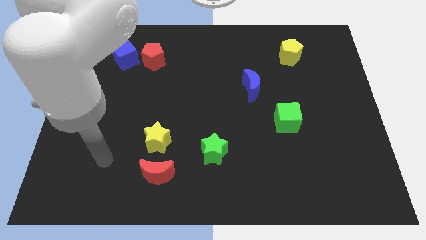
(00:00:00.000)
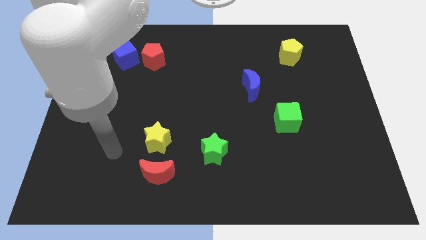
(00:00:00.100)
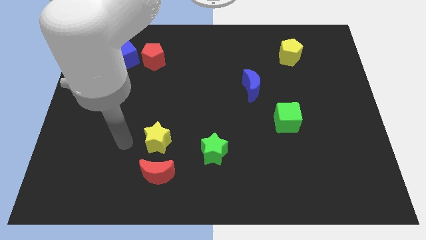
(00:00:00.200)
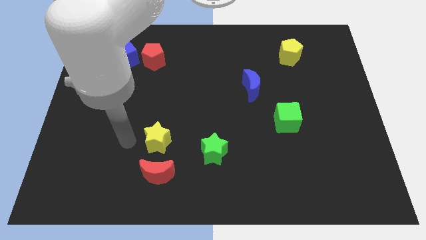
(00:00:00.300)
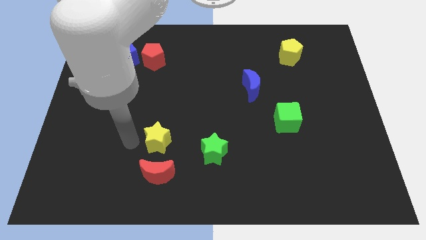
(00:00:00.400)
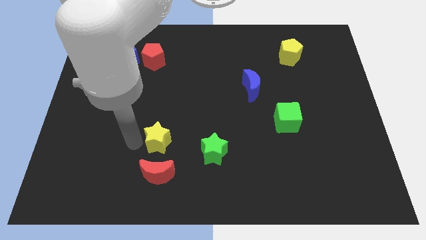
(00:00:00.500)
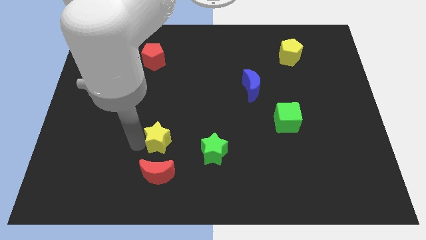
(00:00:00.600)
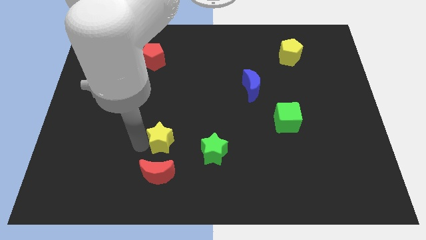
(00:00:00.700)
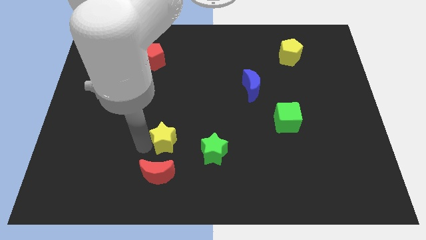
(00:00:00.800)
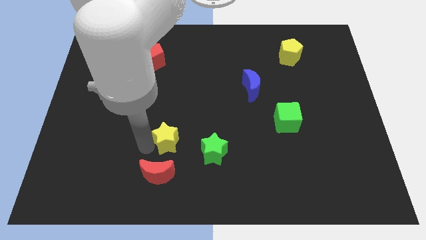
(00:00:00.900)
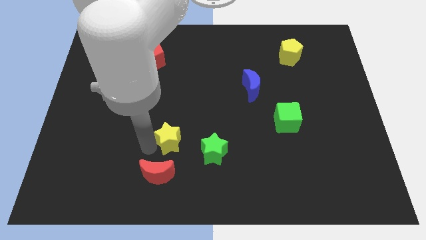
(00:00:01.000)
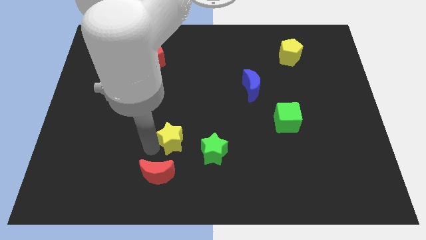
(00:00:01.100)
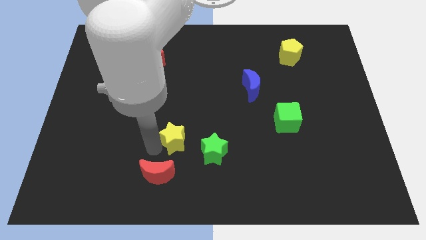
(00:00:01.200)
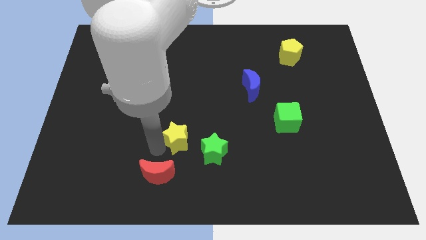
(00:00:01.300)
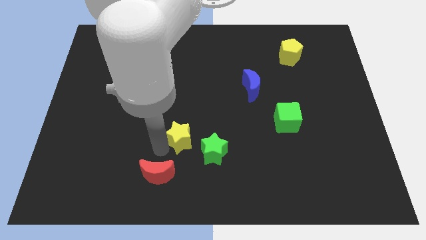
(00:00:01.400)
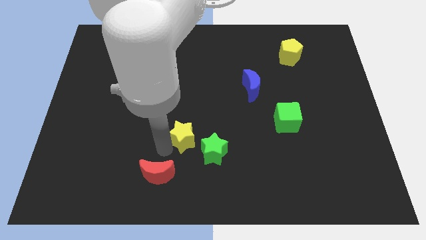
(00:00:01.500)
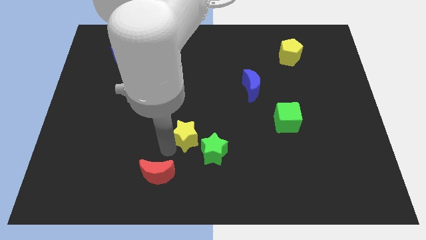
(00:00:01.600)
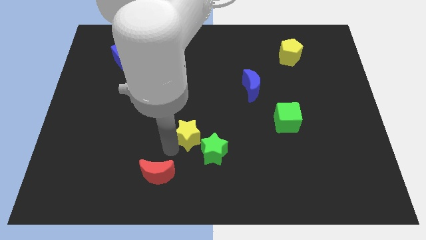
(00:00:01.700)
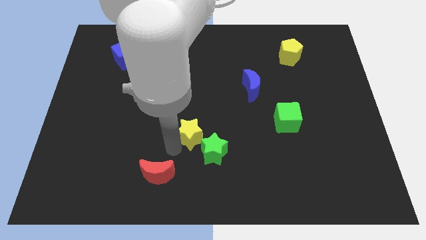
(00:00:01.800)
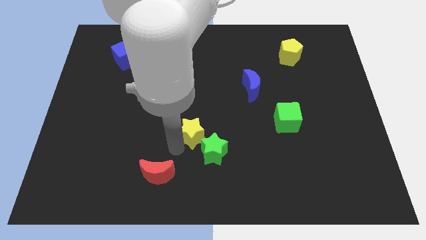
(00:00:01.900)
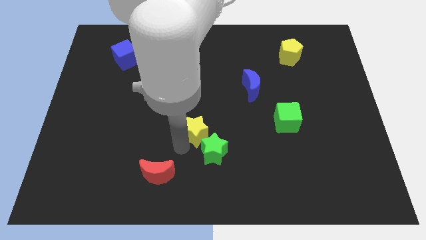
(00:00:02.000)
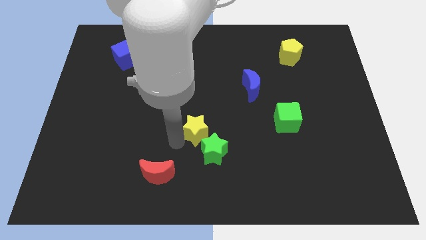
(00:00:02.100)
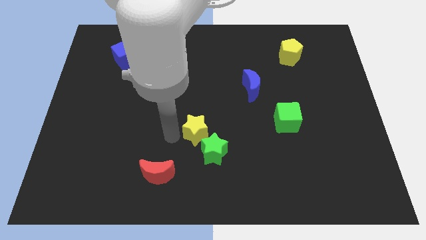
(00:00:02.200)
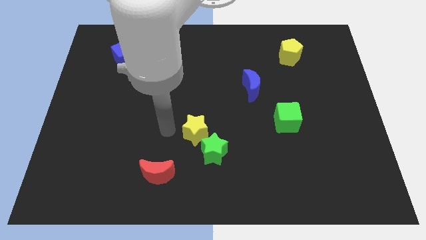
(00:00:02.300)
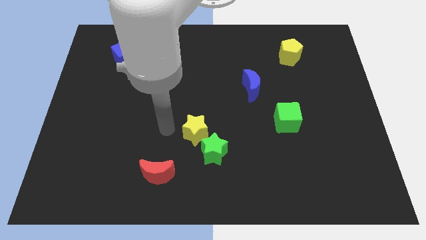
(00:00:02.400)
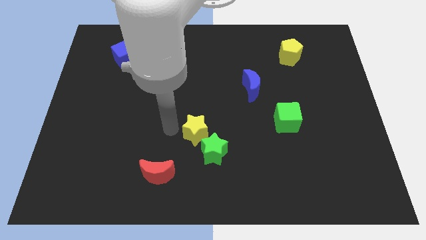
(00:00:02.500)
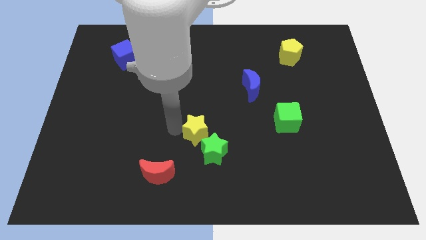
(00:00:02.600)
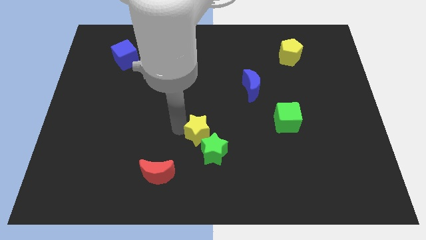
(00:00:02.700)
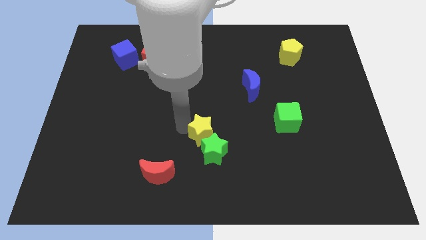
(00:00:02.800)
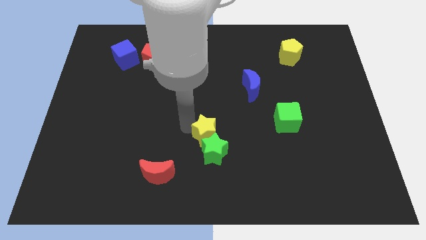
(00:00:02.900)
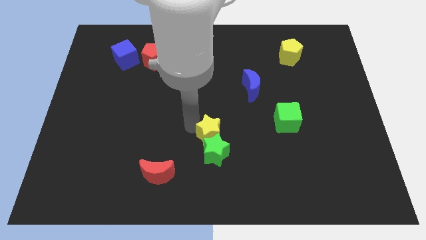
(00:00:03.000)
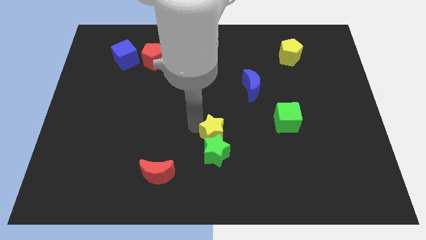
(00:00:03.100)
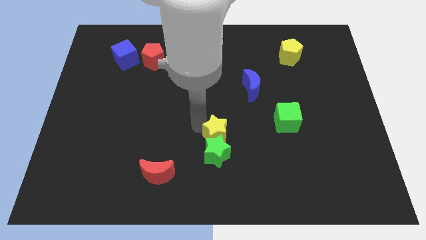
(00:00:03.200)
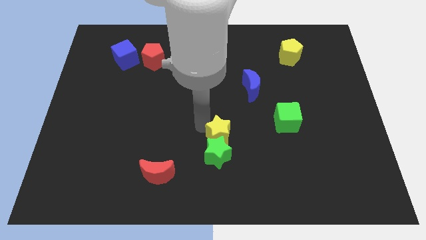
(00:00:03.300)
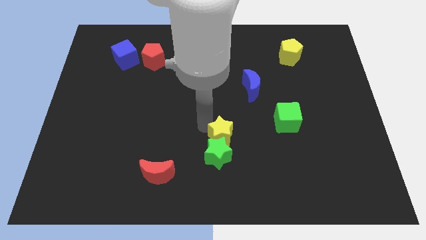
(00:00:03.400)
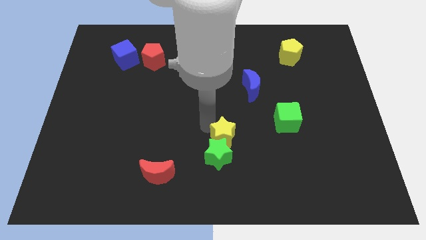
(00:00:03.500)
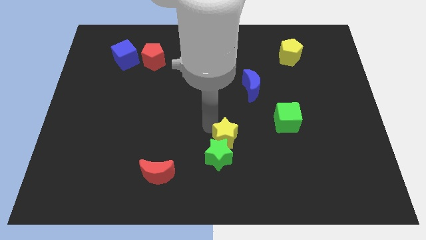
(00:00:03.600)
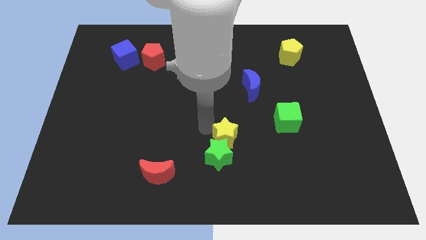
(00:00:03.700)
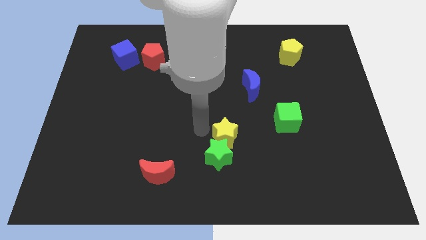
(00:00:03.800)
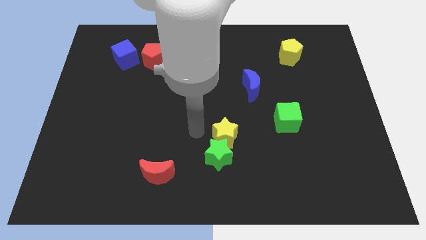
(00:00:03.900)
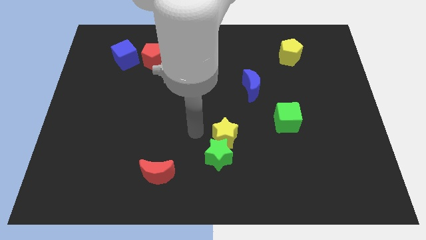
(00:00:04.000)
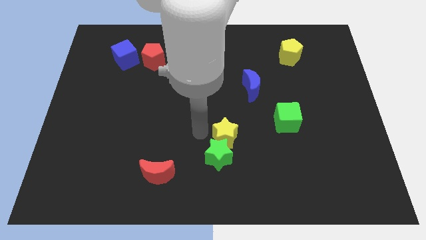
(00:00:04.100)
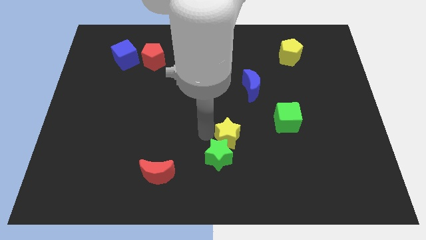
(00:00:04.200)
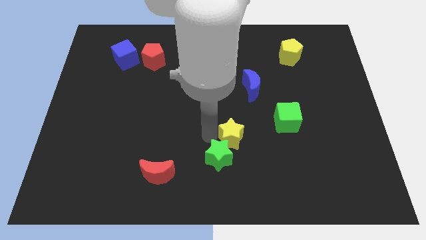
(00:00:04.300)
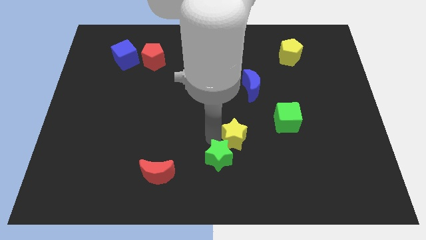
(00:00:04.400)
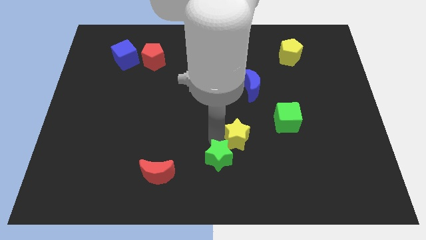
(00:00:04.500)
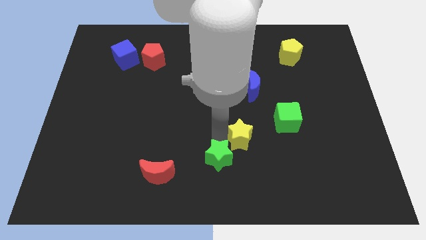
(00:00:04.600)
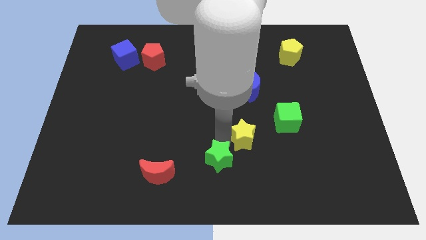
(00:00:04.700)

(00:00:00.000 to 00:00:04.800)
push the yellow star to the bottom left of the green cube

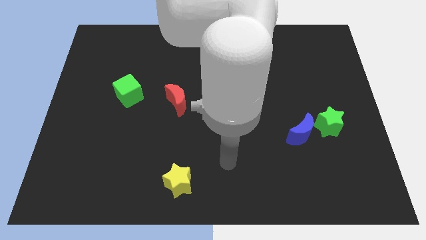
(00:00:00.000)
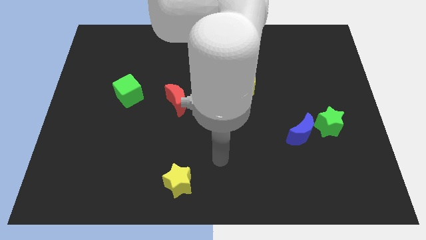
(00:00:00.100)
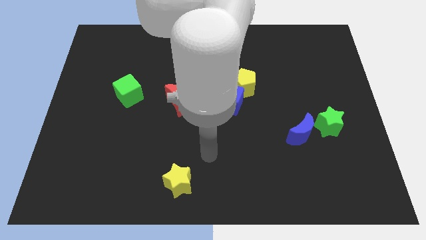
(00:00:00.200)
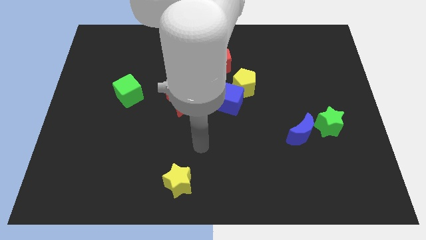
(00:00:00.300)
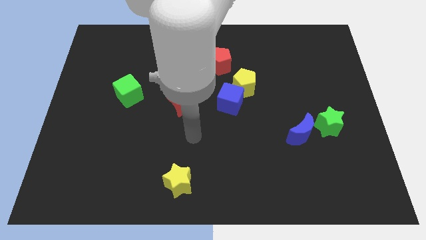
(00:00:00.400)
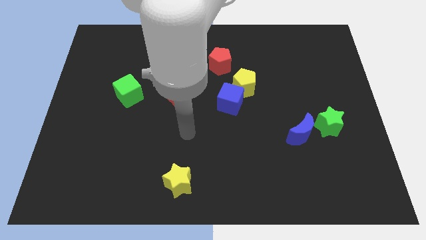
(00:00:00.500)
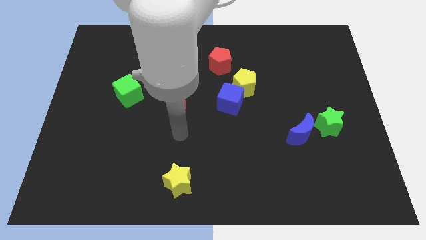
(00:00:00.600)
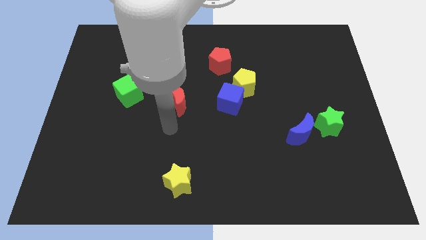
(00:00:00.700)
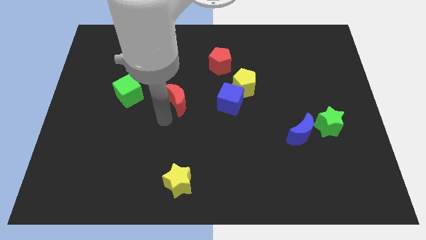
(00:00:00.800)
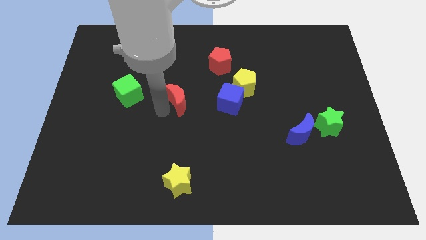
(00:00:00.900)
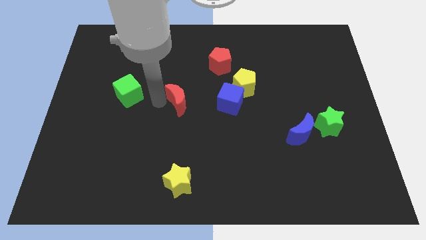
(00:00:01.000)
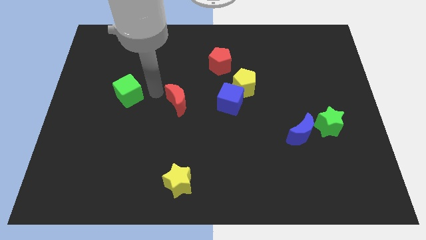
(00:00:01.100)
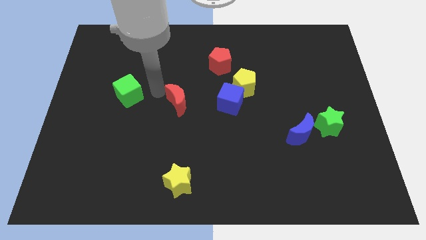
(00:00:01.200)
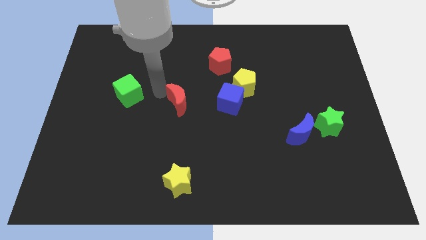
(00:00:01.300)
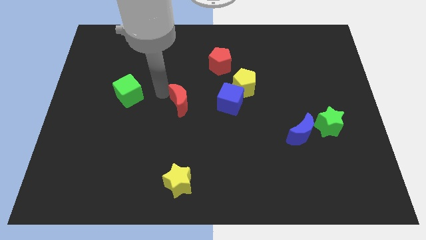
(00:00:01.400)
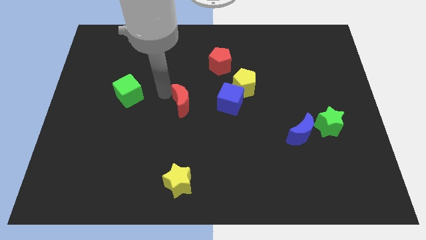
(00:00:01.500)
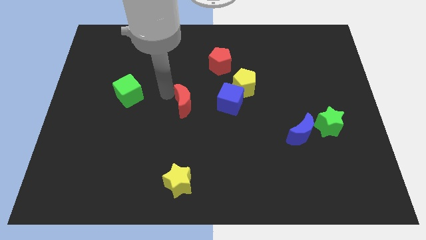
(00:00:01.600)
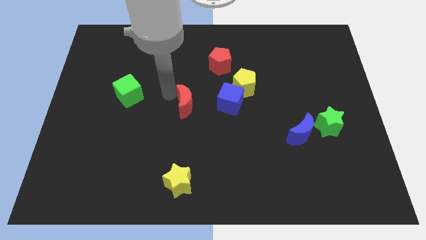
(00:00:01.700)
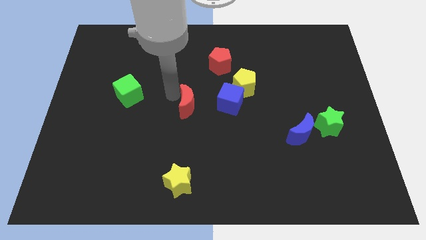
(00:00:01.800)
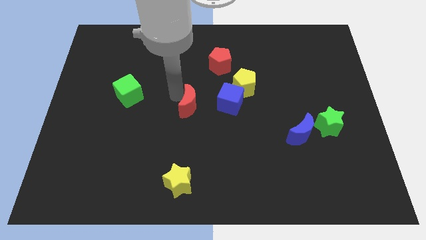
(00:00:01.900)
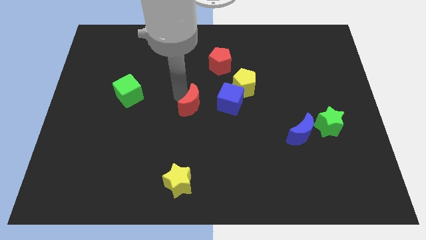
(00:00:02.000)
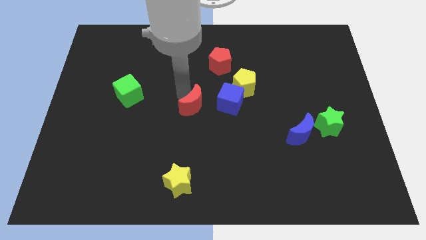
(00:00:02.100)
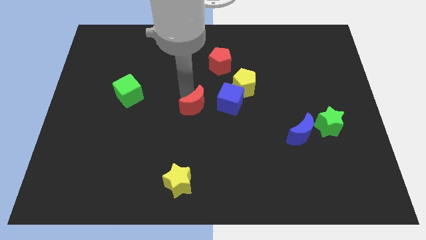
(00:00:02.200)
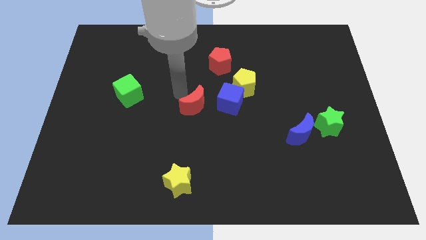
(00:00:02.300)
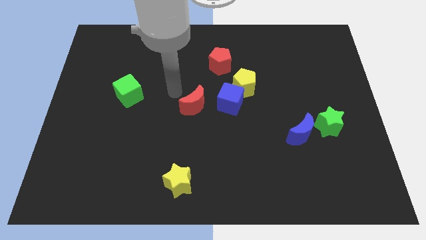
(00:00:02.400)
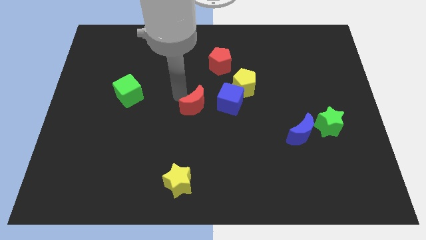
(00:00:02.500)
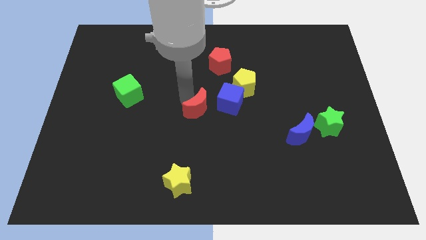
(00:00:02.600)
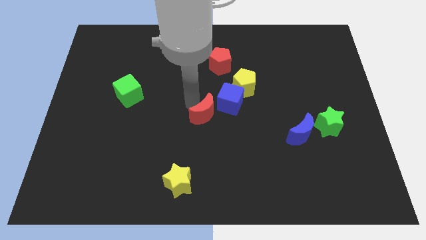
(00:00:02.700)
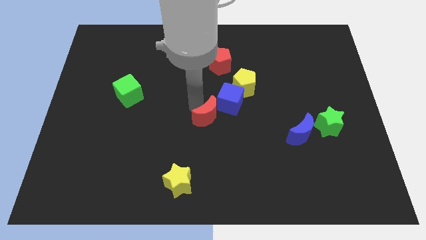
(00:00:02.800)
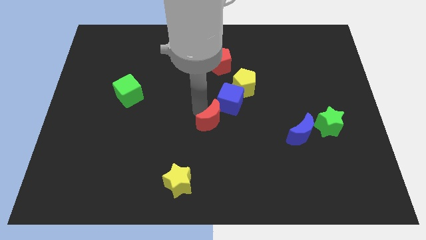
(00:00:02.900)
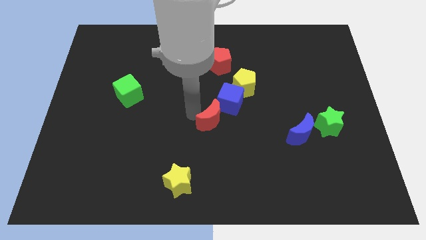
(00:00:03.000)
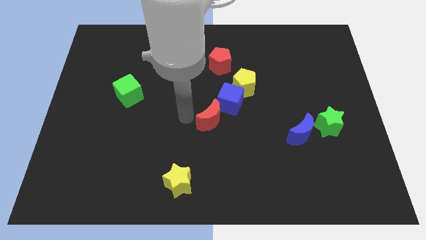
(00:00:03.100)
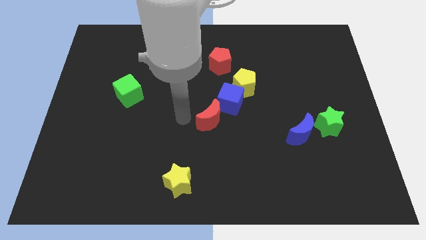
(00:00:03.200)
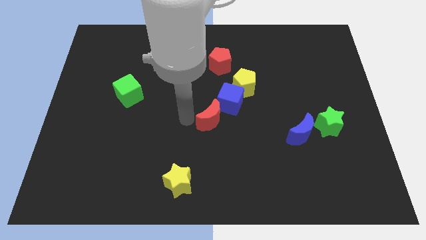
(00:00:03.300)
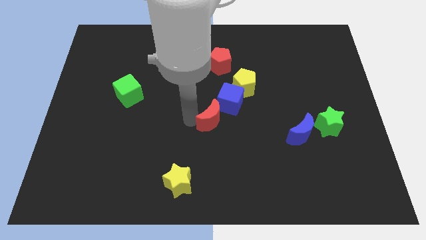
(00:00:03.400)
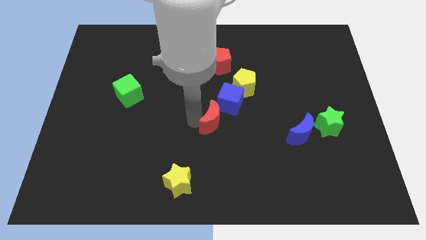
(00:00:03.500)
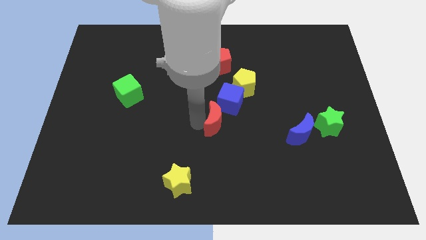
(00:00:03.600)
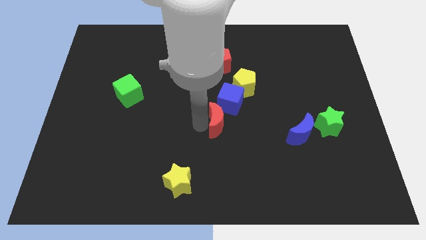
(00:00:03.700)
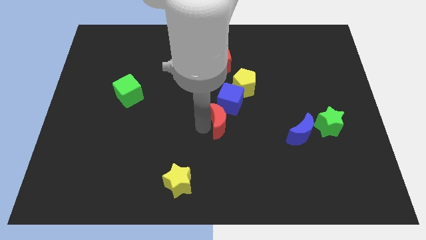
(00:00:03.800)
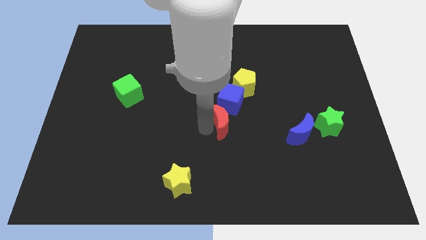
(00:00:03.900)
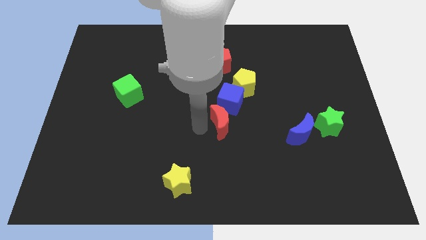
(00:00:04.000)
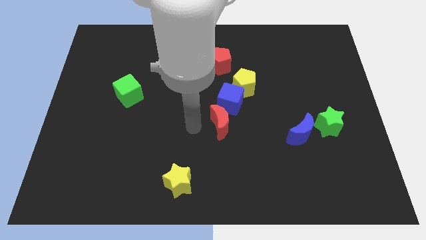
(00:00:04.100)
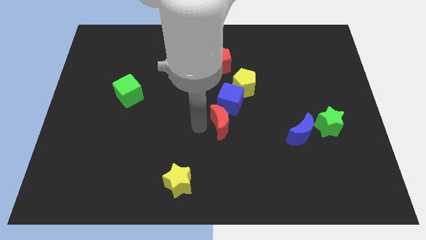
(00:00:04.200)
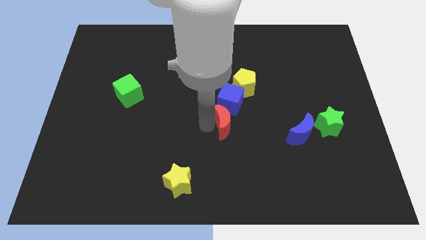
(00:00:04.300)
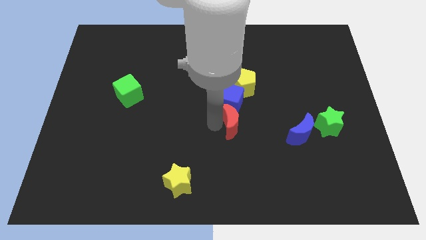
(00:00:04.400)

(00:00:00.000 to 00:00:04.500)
move the red moon to the bottom side of the yellow pentagon
